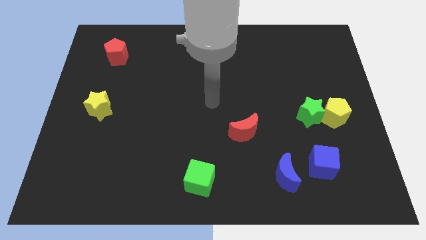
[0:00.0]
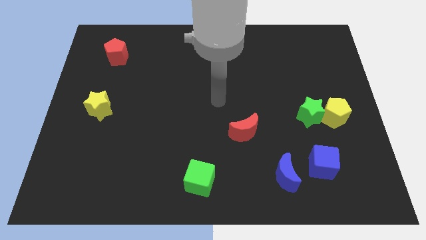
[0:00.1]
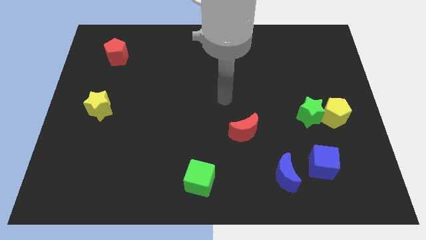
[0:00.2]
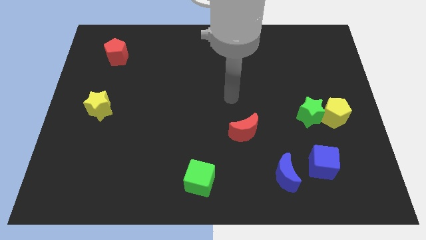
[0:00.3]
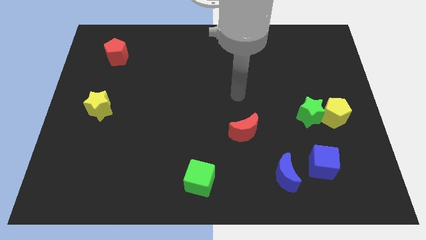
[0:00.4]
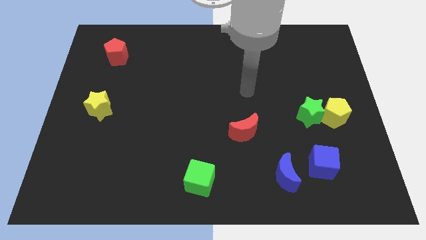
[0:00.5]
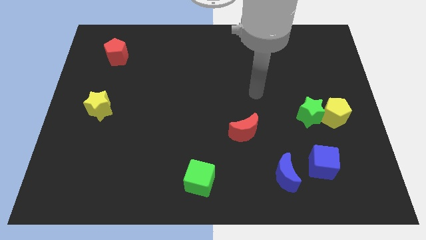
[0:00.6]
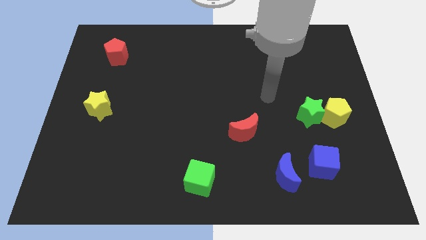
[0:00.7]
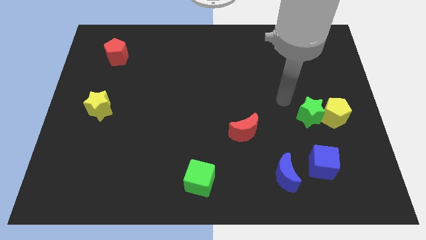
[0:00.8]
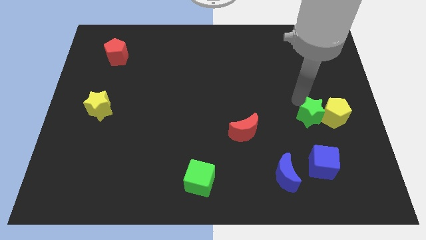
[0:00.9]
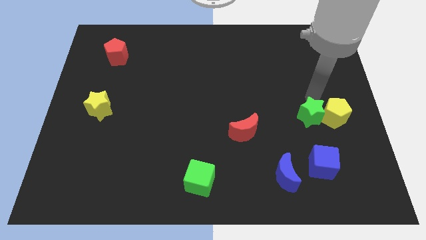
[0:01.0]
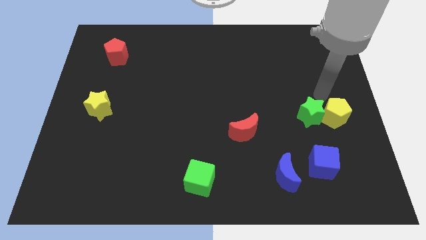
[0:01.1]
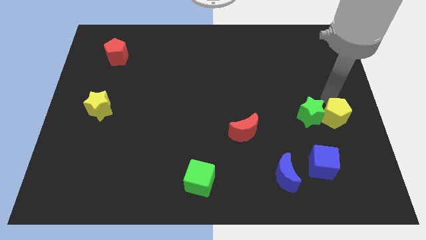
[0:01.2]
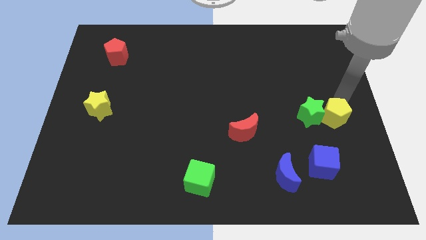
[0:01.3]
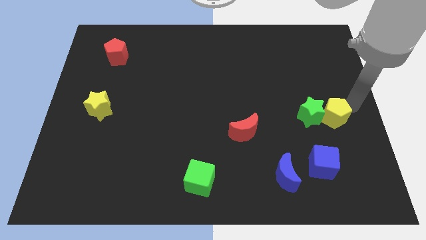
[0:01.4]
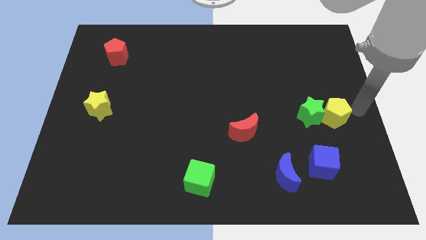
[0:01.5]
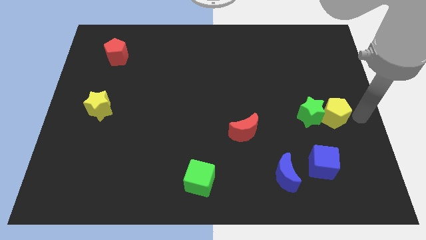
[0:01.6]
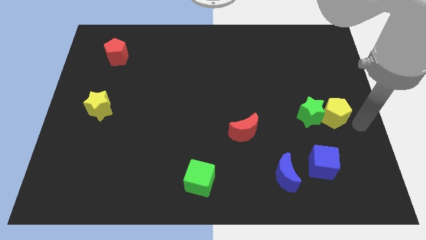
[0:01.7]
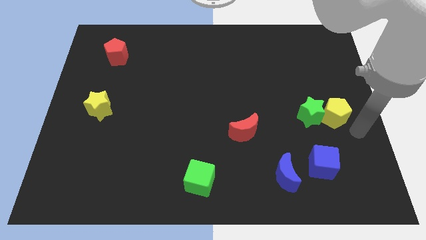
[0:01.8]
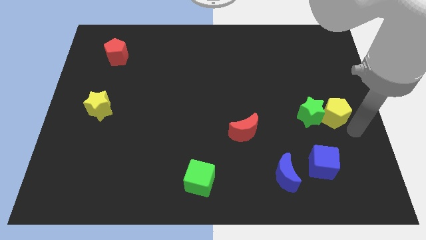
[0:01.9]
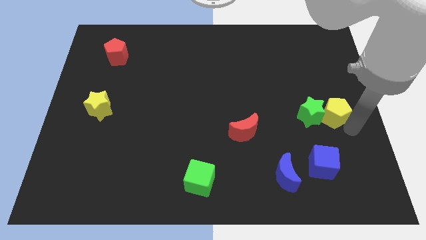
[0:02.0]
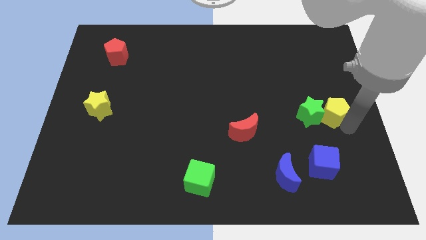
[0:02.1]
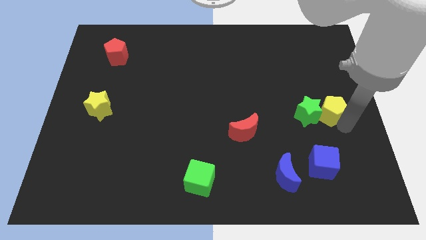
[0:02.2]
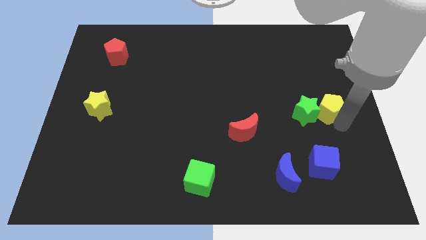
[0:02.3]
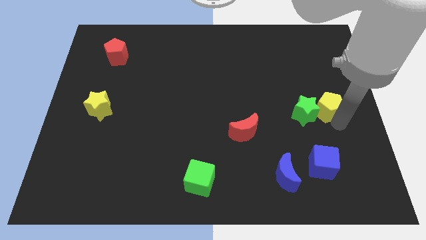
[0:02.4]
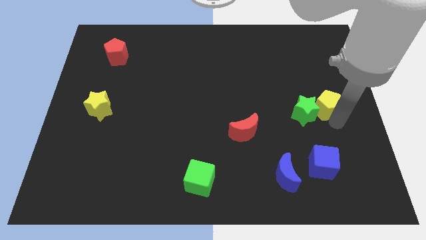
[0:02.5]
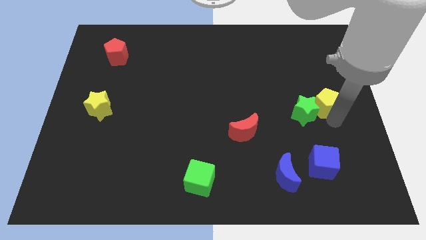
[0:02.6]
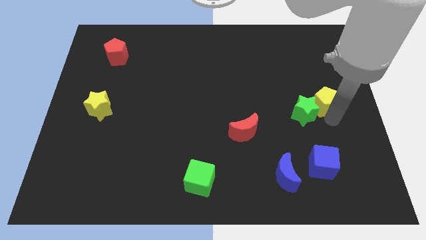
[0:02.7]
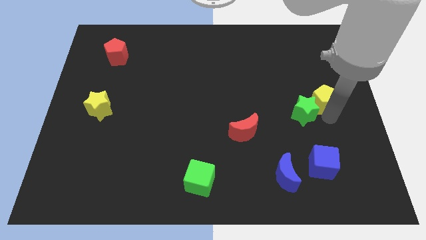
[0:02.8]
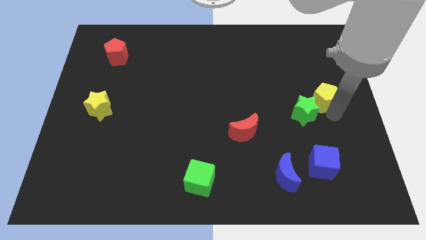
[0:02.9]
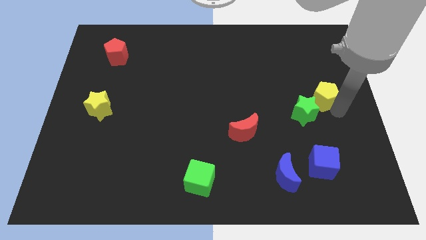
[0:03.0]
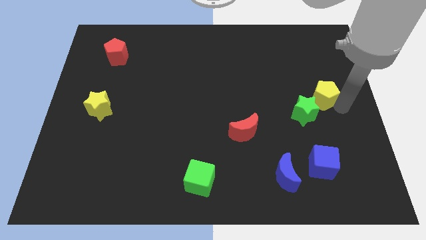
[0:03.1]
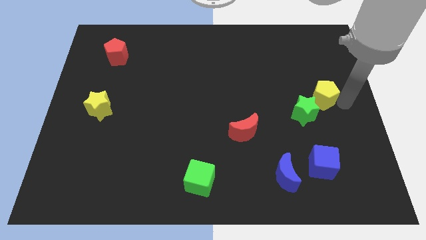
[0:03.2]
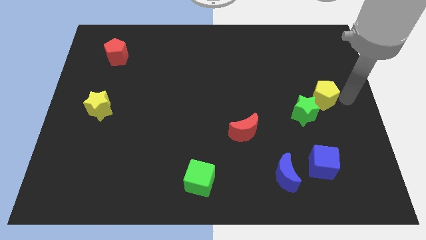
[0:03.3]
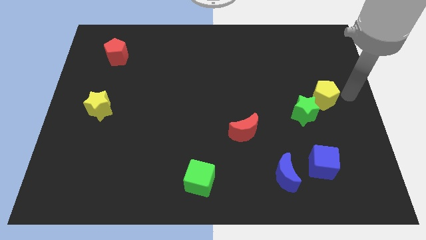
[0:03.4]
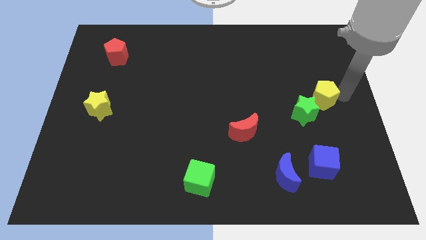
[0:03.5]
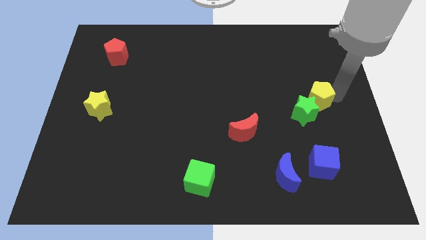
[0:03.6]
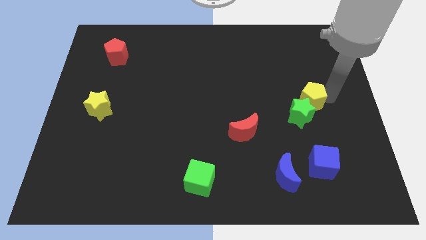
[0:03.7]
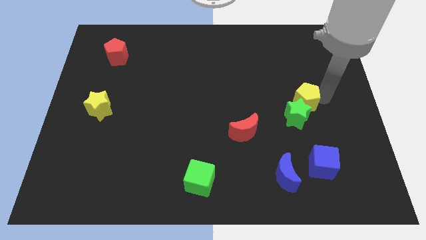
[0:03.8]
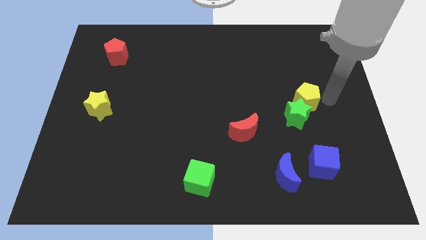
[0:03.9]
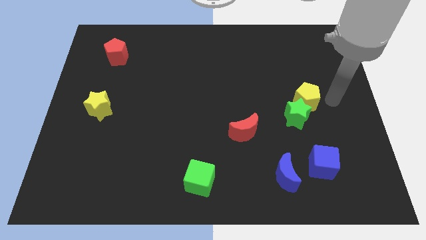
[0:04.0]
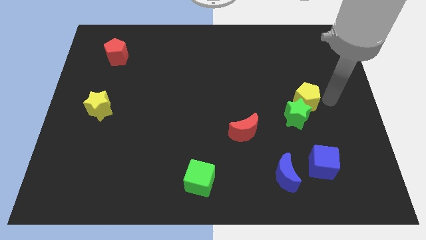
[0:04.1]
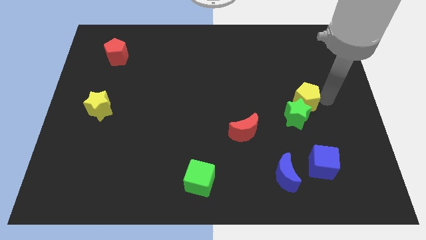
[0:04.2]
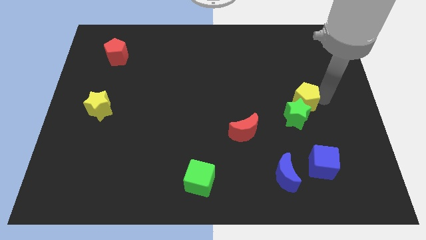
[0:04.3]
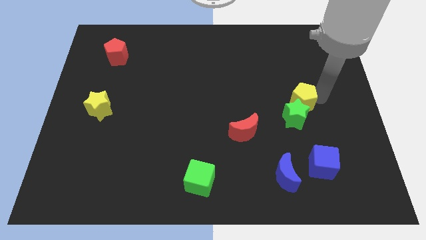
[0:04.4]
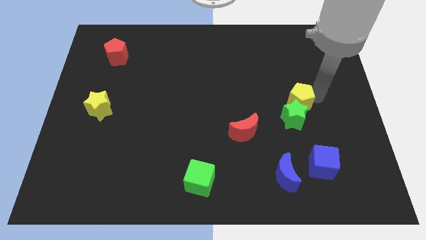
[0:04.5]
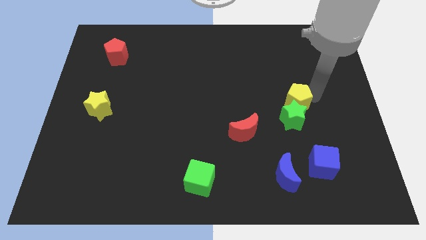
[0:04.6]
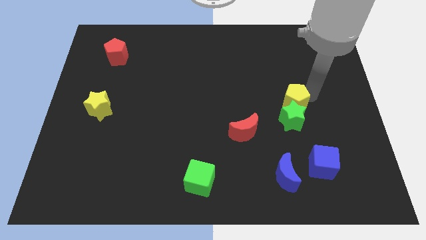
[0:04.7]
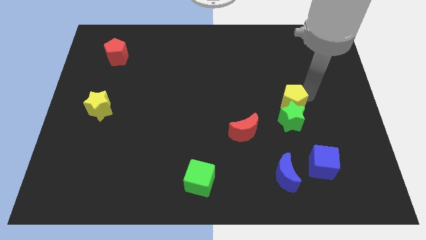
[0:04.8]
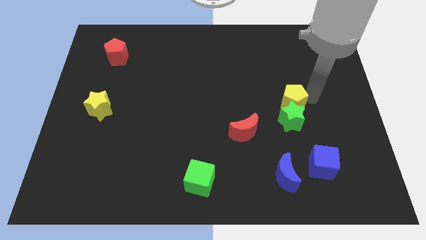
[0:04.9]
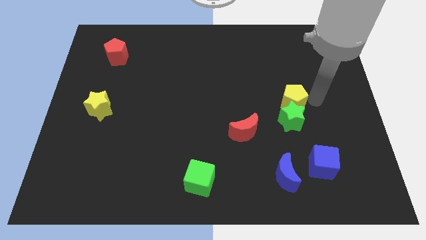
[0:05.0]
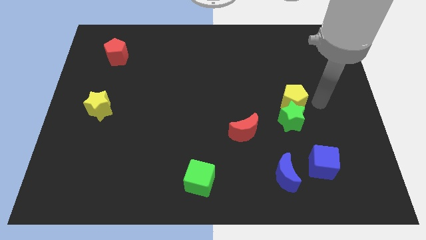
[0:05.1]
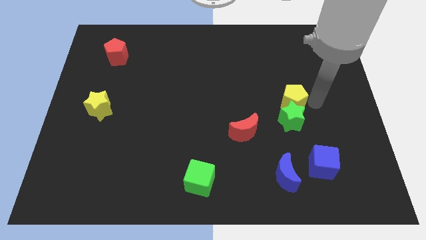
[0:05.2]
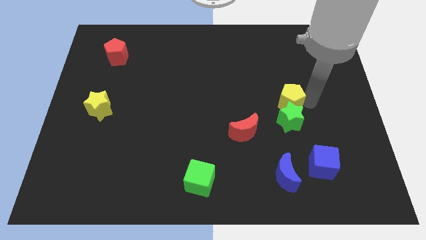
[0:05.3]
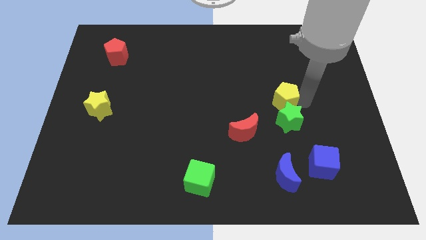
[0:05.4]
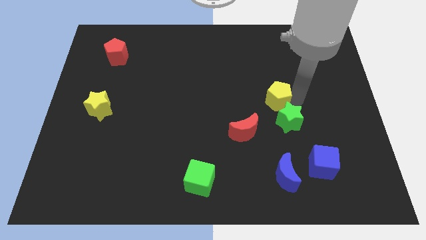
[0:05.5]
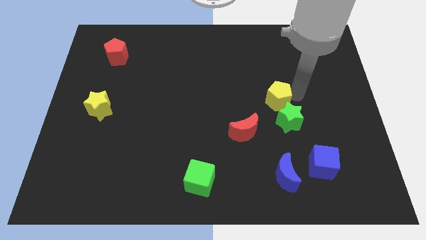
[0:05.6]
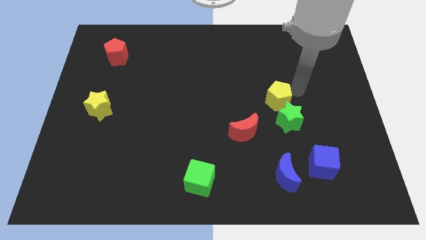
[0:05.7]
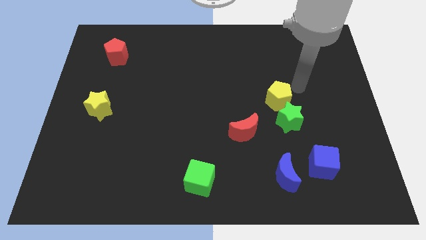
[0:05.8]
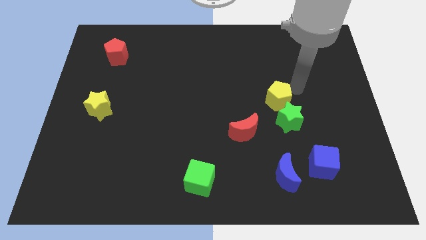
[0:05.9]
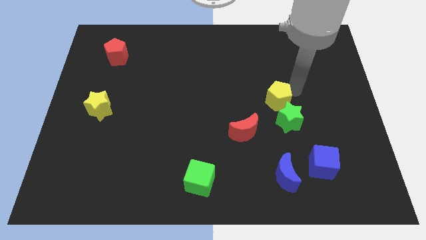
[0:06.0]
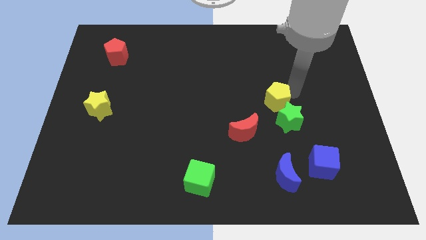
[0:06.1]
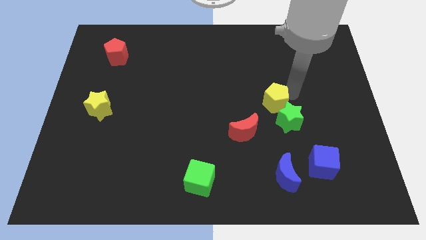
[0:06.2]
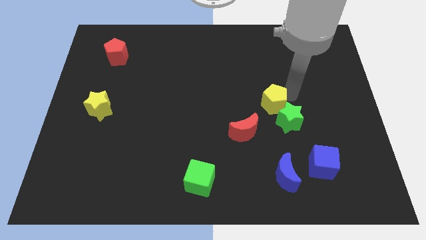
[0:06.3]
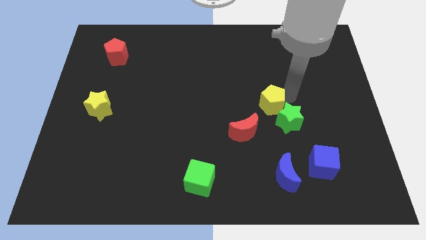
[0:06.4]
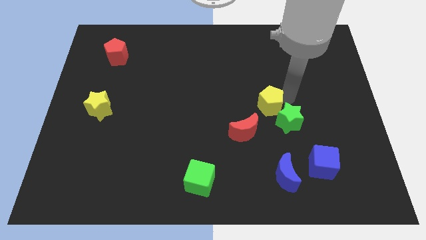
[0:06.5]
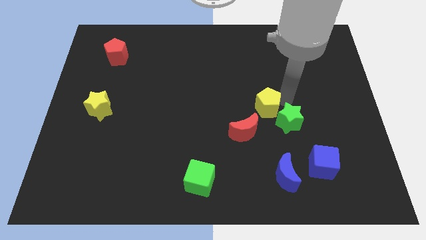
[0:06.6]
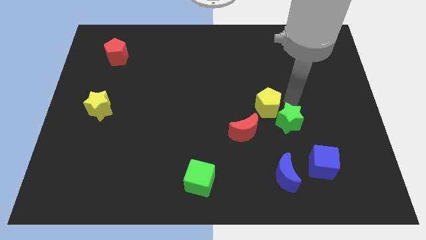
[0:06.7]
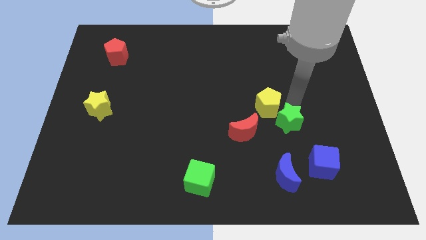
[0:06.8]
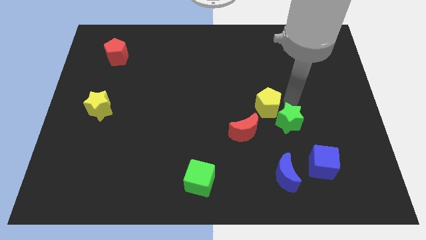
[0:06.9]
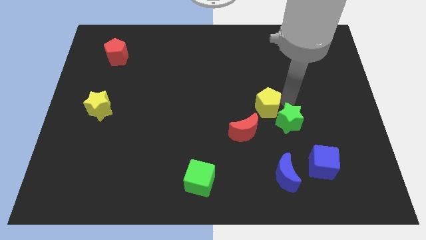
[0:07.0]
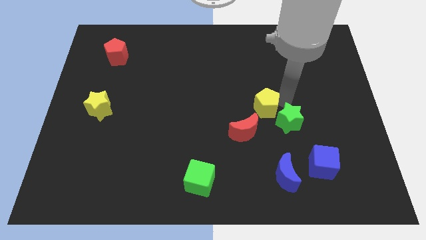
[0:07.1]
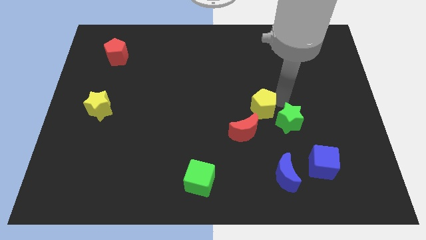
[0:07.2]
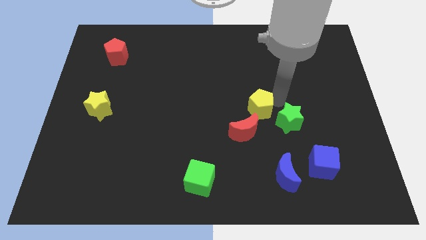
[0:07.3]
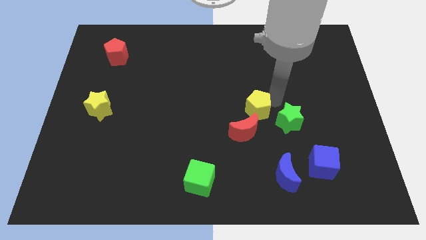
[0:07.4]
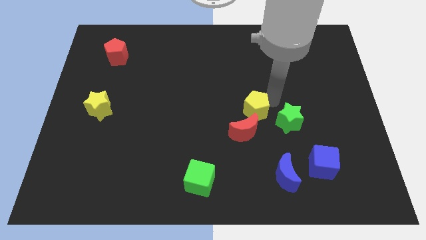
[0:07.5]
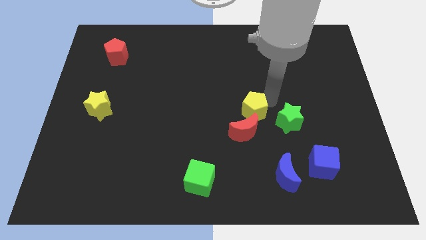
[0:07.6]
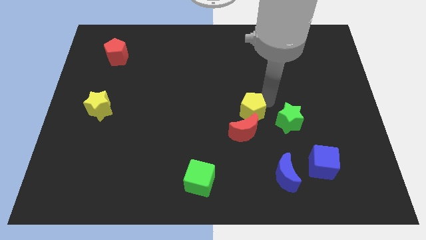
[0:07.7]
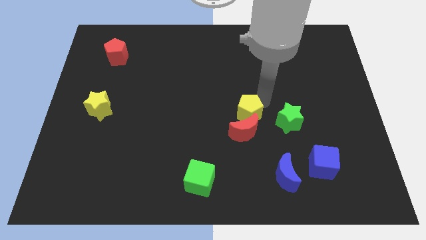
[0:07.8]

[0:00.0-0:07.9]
move the yellow pentagon left

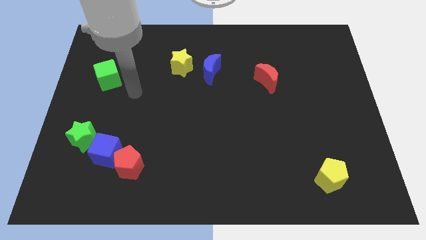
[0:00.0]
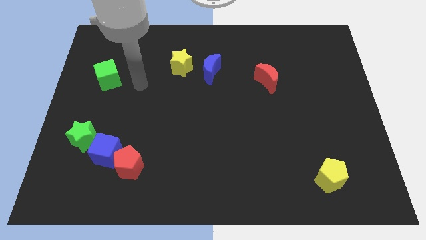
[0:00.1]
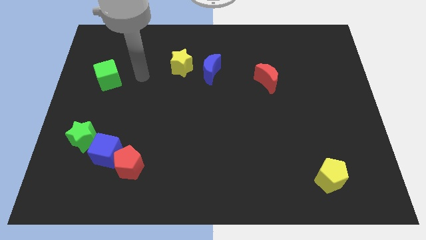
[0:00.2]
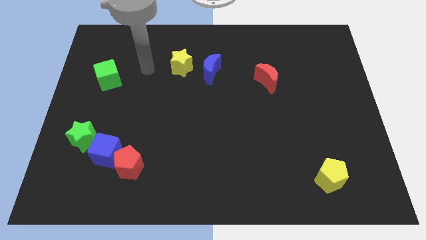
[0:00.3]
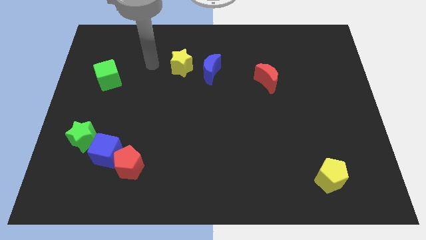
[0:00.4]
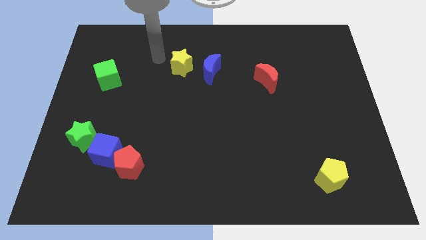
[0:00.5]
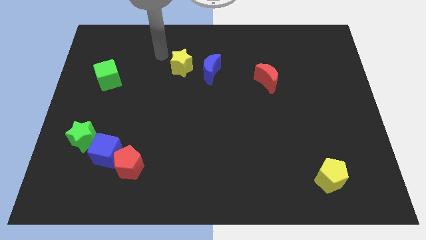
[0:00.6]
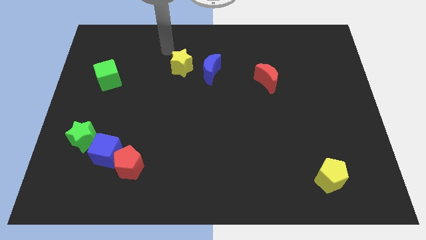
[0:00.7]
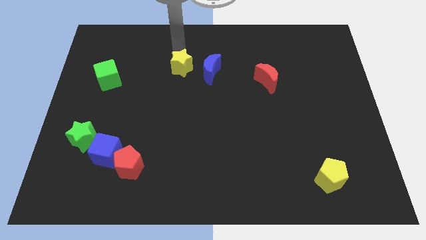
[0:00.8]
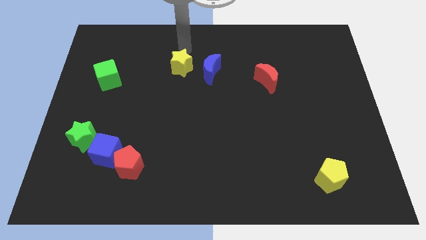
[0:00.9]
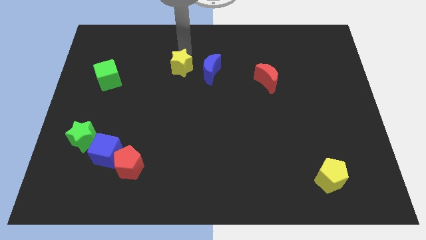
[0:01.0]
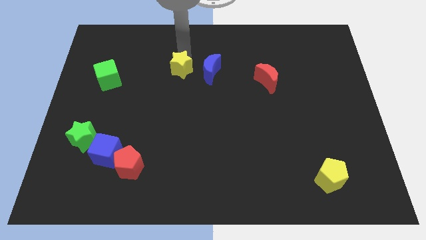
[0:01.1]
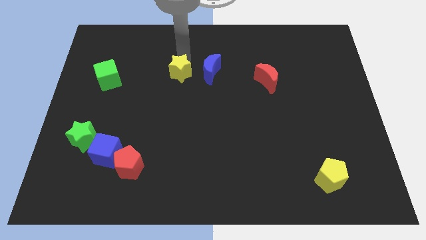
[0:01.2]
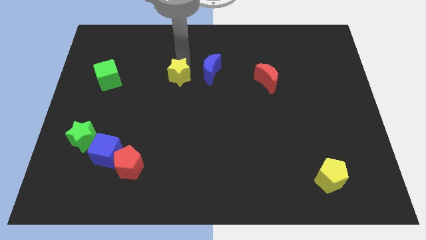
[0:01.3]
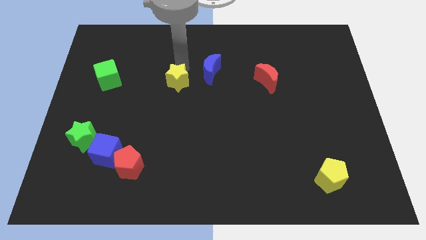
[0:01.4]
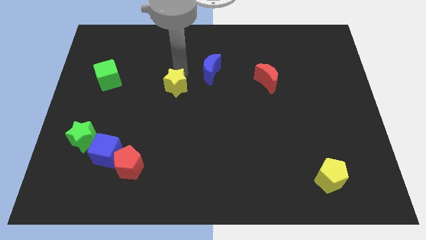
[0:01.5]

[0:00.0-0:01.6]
push the yellow star down somewhat
